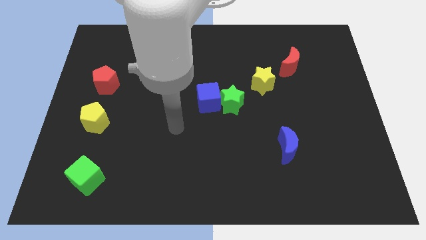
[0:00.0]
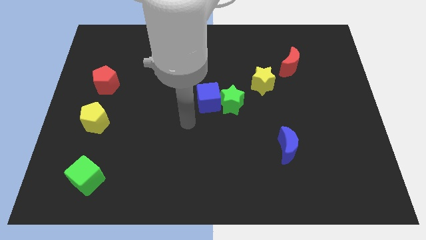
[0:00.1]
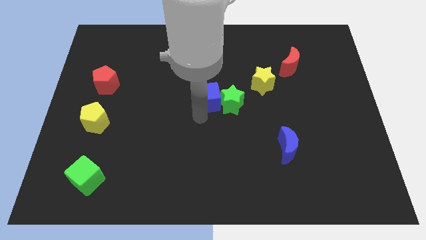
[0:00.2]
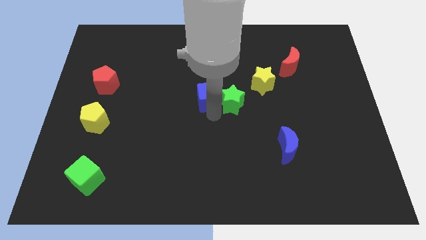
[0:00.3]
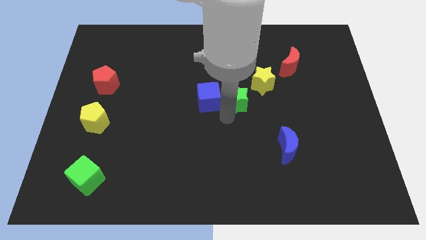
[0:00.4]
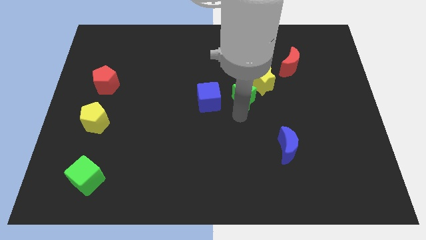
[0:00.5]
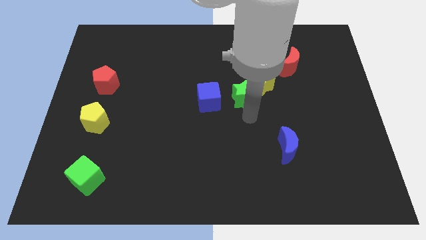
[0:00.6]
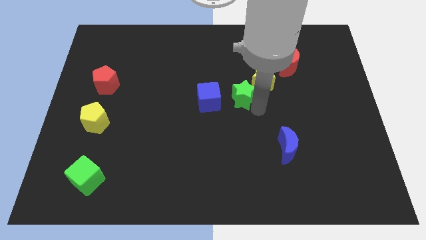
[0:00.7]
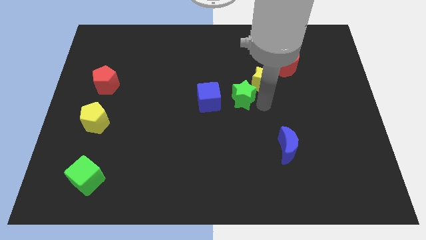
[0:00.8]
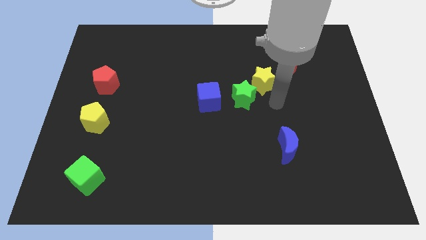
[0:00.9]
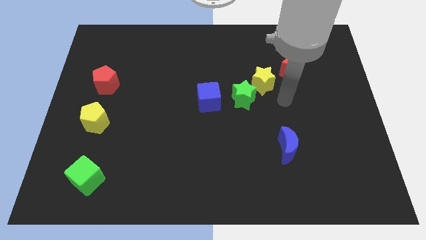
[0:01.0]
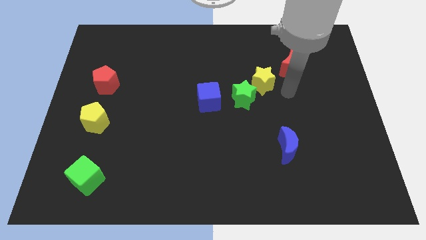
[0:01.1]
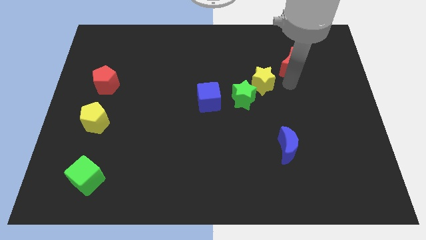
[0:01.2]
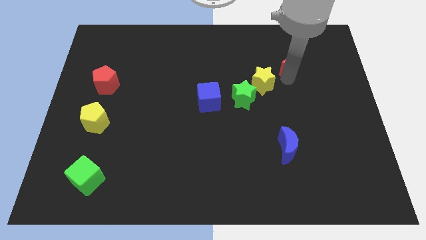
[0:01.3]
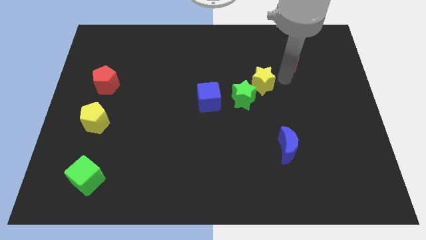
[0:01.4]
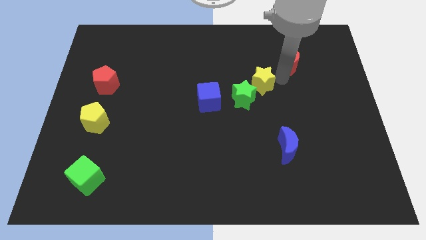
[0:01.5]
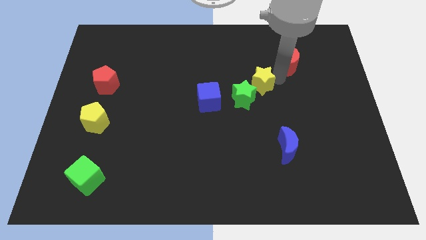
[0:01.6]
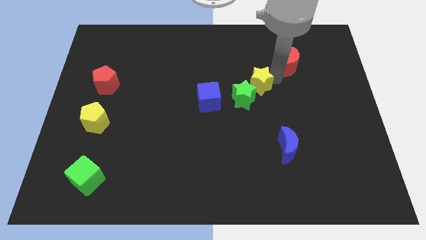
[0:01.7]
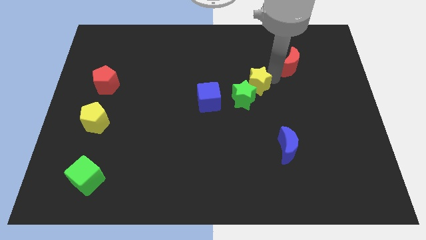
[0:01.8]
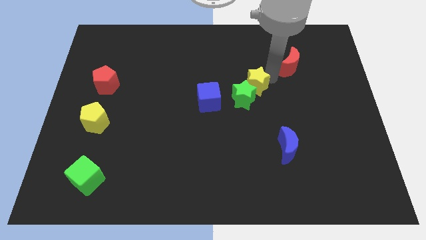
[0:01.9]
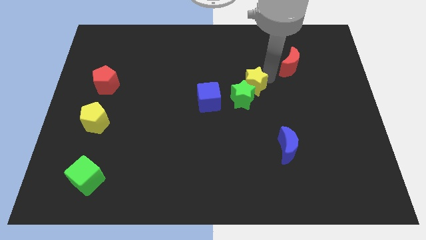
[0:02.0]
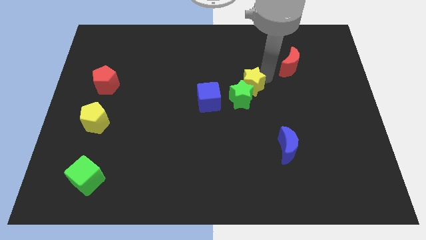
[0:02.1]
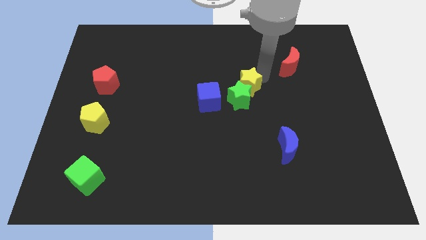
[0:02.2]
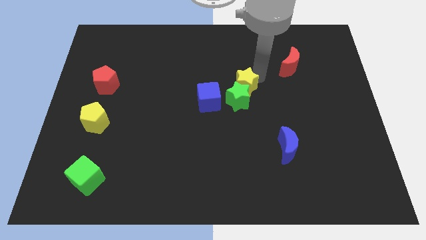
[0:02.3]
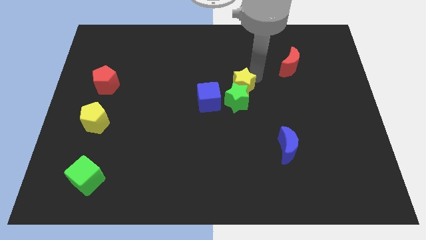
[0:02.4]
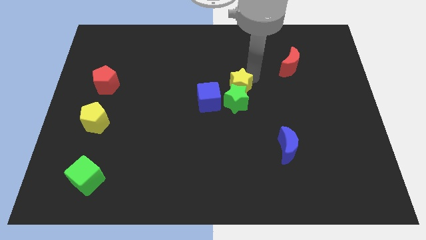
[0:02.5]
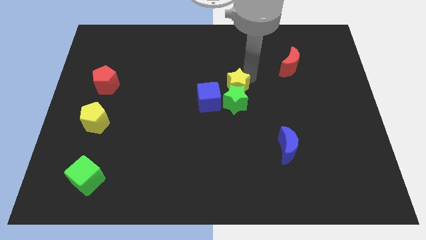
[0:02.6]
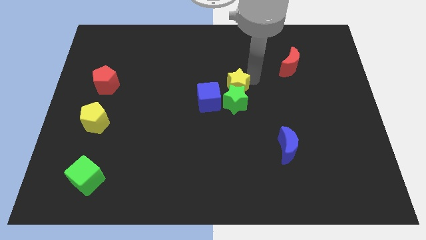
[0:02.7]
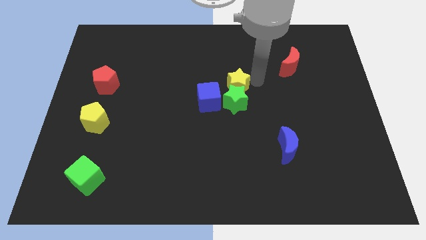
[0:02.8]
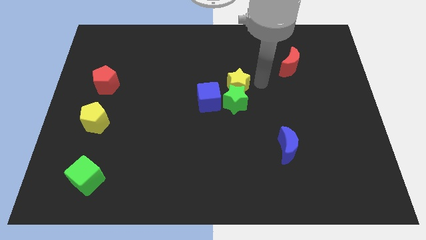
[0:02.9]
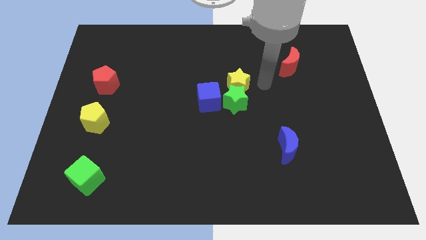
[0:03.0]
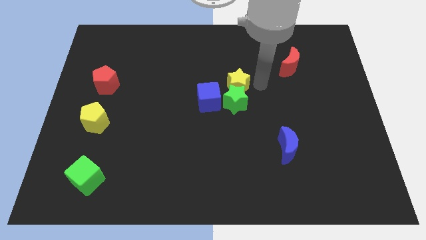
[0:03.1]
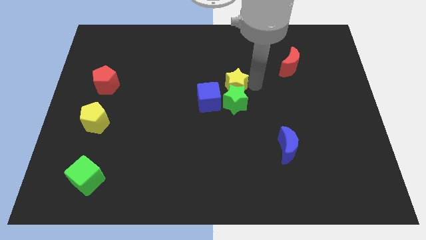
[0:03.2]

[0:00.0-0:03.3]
move the yellow star left slightly

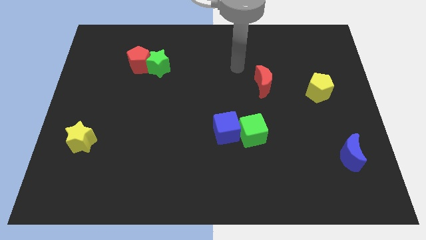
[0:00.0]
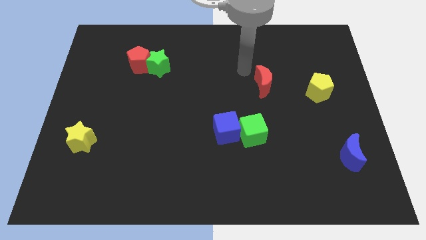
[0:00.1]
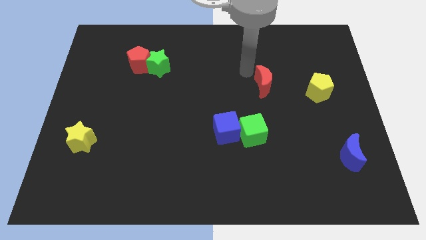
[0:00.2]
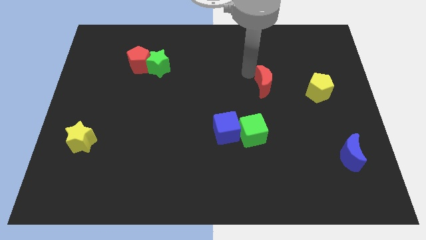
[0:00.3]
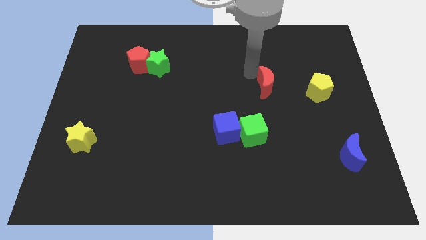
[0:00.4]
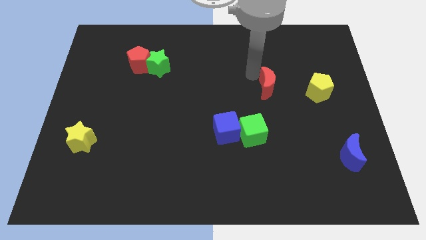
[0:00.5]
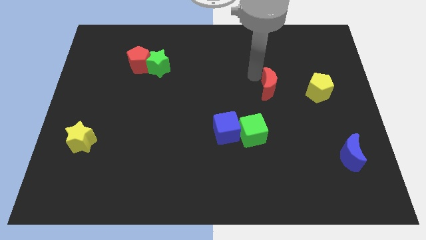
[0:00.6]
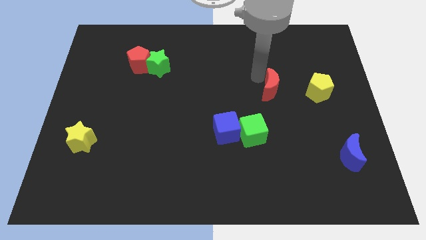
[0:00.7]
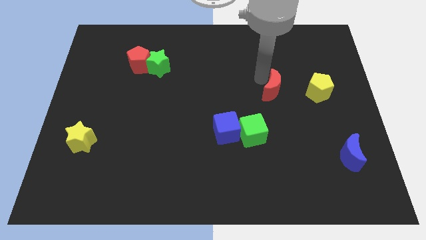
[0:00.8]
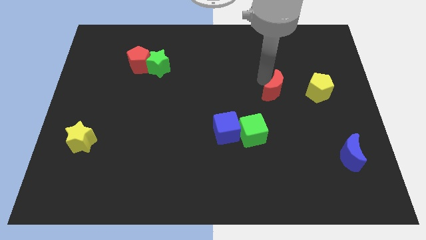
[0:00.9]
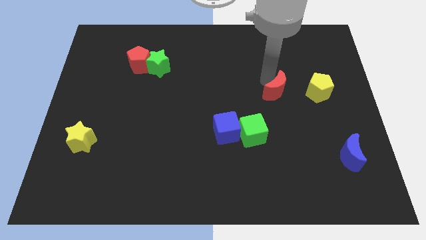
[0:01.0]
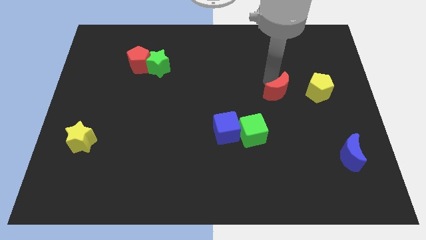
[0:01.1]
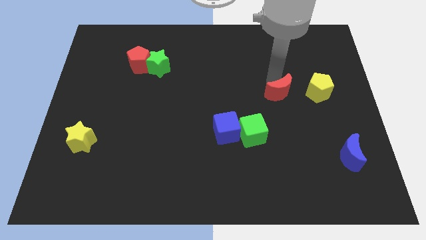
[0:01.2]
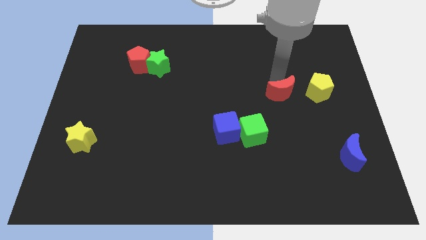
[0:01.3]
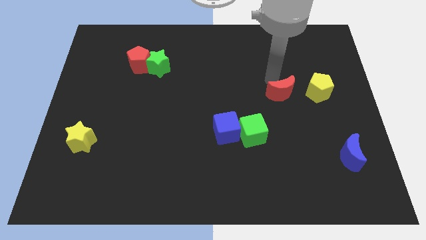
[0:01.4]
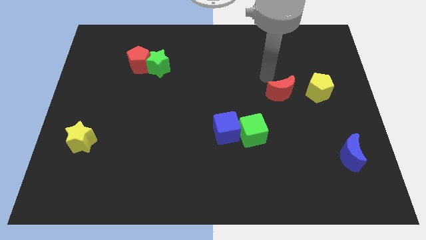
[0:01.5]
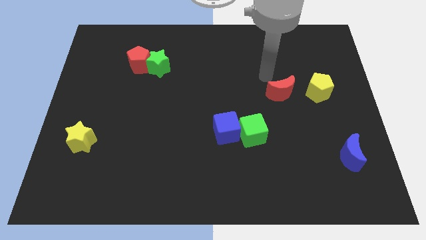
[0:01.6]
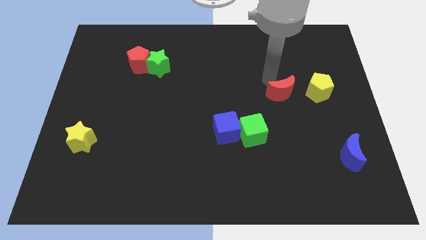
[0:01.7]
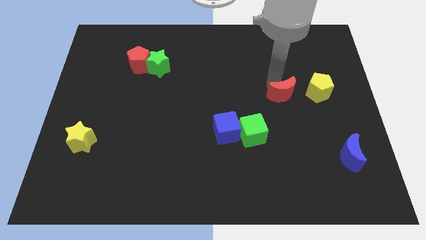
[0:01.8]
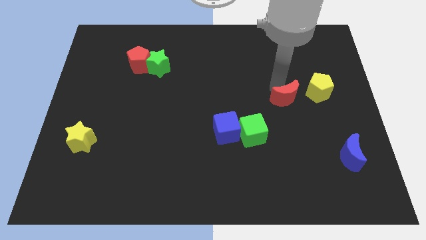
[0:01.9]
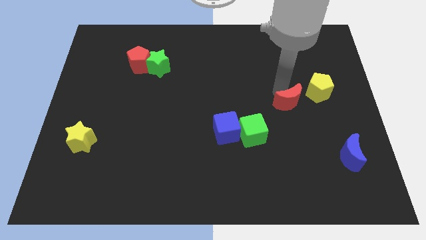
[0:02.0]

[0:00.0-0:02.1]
slightly move the red moon downwards and right

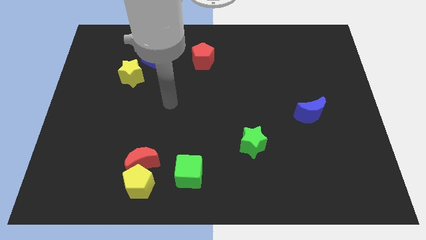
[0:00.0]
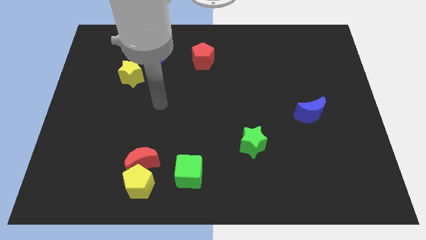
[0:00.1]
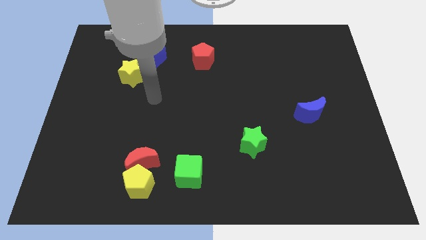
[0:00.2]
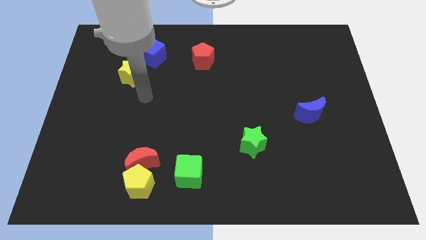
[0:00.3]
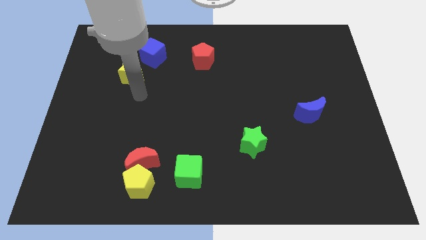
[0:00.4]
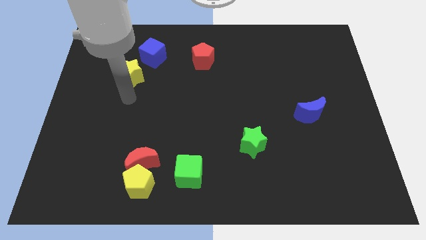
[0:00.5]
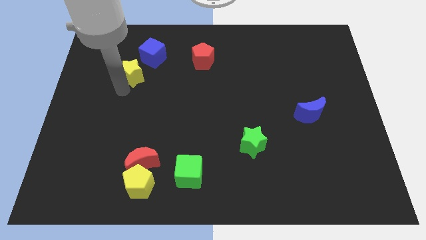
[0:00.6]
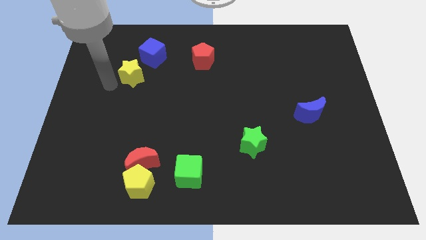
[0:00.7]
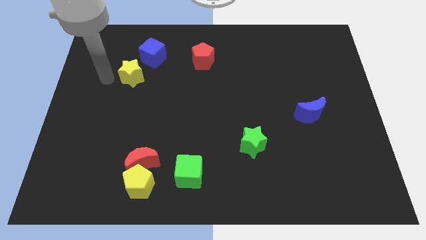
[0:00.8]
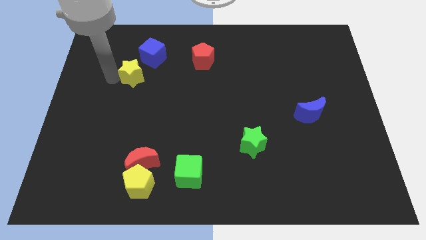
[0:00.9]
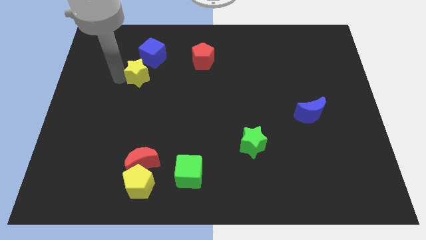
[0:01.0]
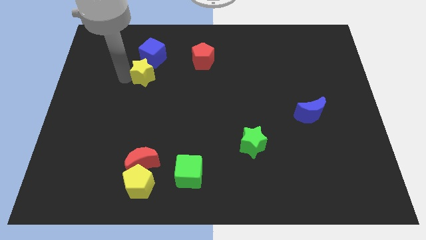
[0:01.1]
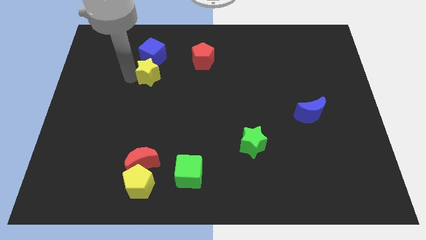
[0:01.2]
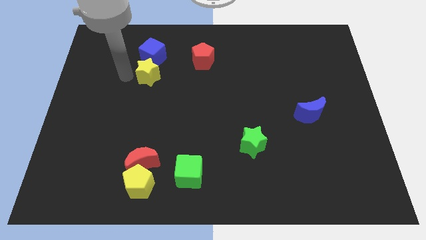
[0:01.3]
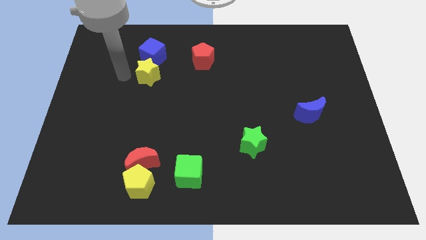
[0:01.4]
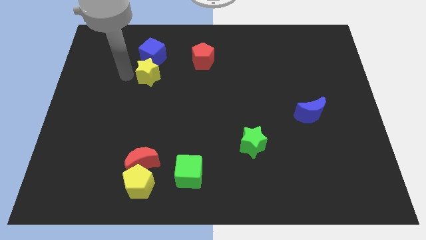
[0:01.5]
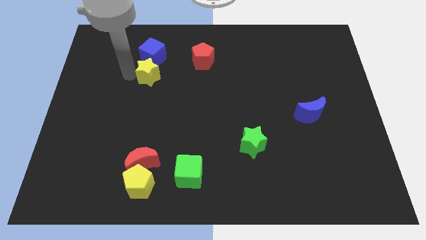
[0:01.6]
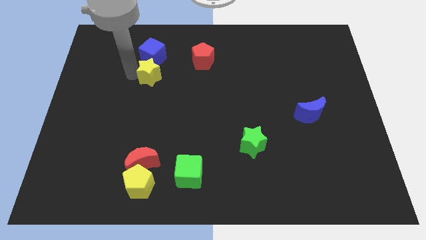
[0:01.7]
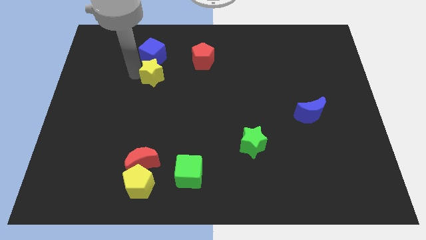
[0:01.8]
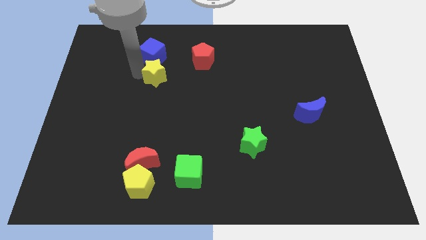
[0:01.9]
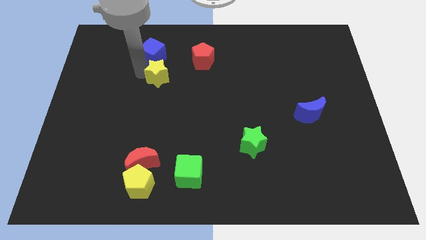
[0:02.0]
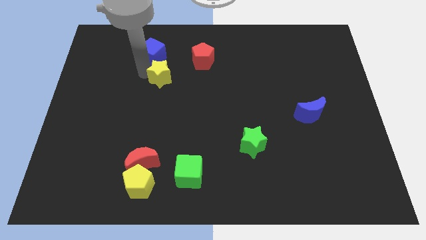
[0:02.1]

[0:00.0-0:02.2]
slide the yellow star a little right

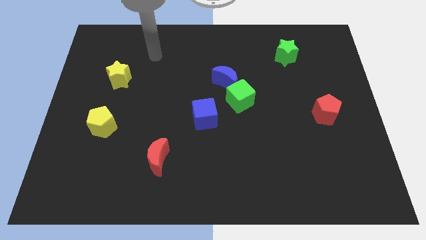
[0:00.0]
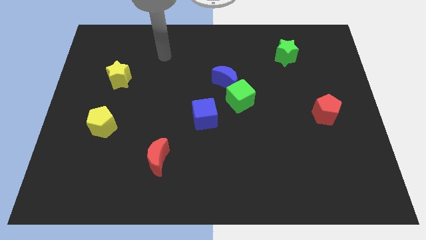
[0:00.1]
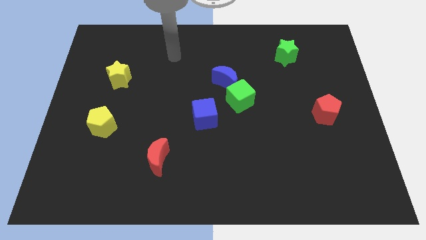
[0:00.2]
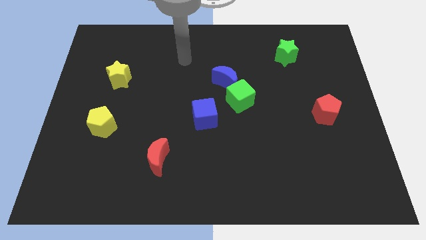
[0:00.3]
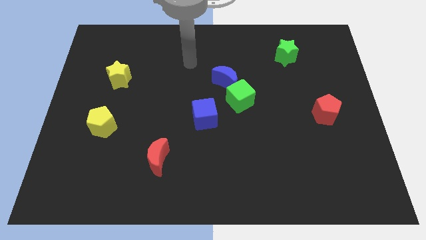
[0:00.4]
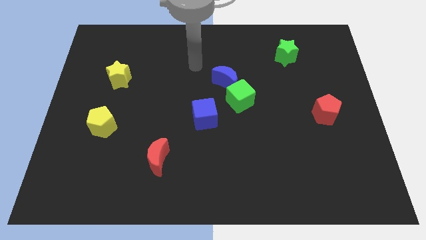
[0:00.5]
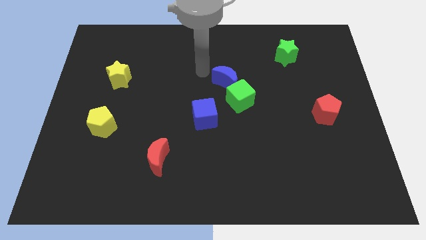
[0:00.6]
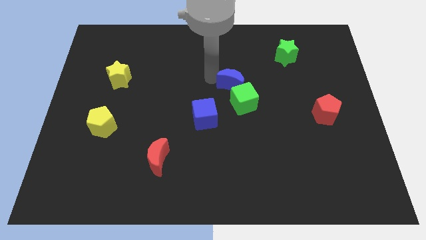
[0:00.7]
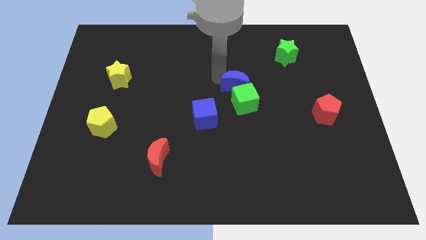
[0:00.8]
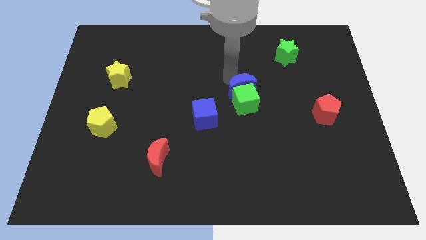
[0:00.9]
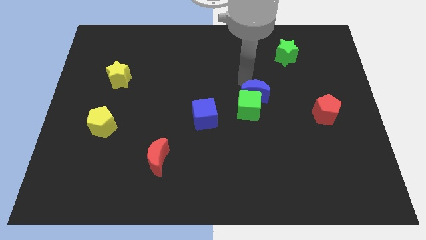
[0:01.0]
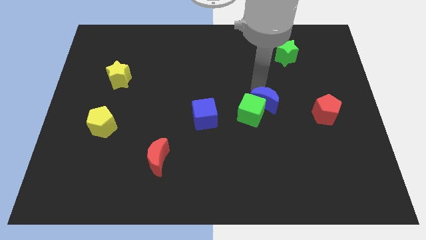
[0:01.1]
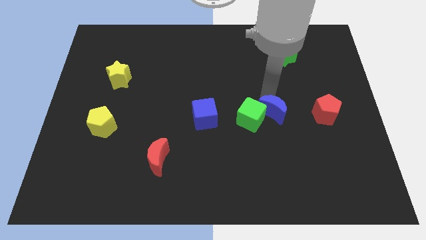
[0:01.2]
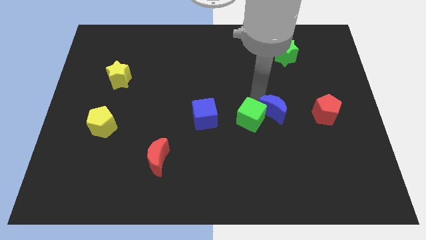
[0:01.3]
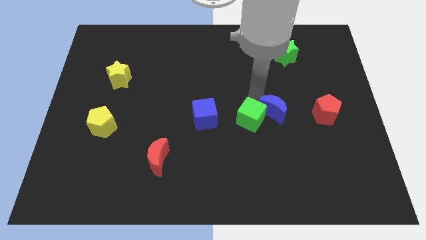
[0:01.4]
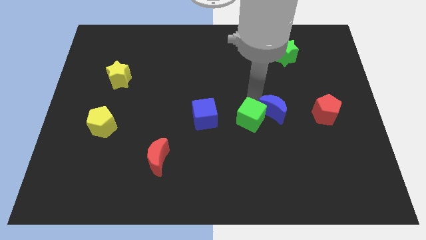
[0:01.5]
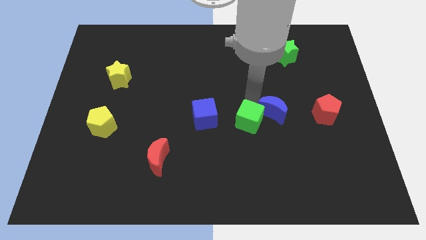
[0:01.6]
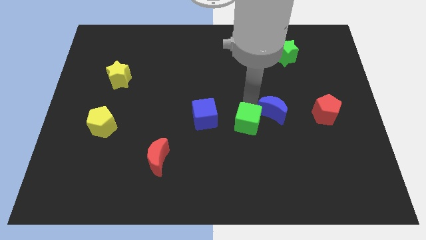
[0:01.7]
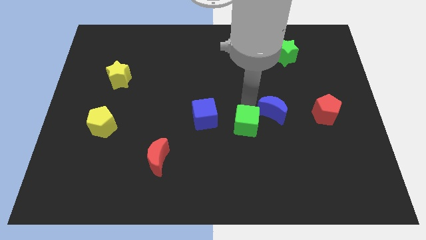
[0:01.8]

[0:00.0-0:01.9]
move the green cube a bit downwards
